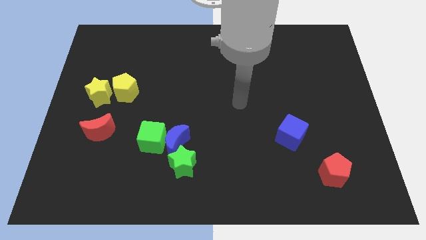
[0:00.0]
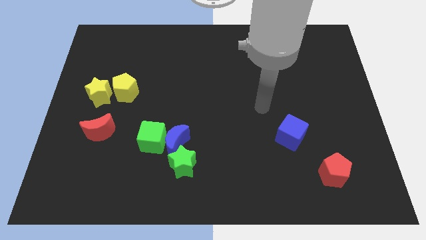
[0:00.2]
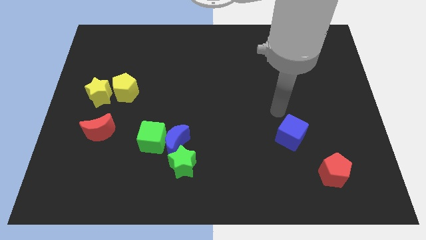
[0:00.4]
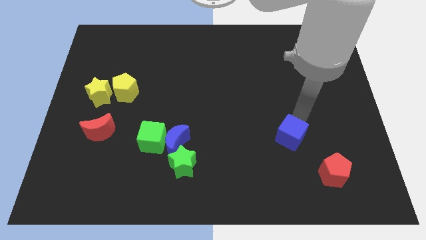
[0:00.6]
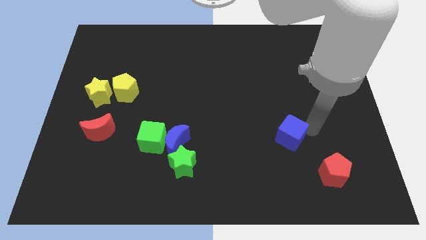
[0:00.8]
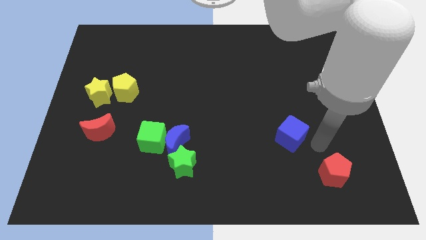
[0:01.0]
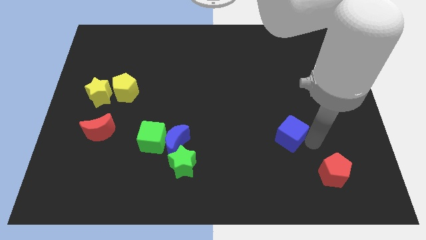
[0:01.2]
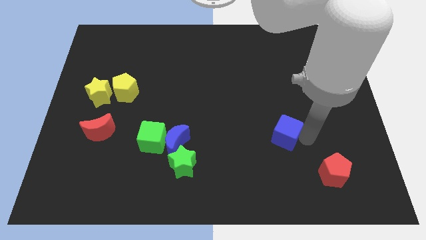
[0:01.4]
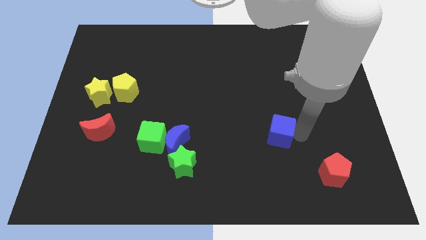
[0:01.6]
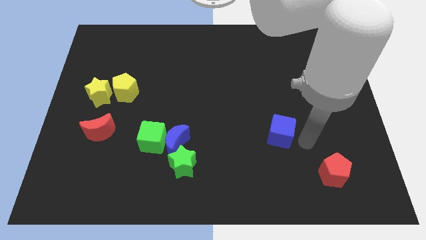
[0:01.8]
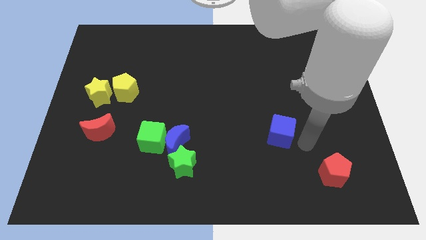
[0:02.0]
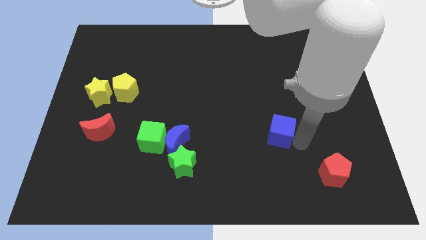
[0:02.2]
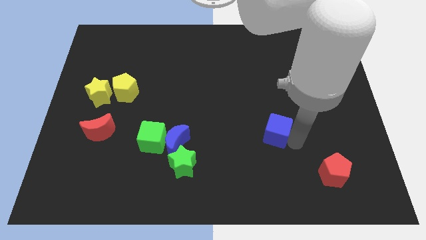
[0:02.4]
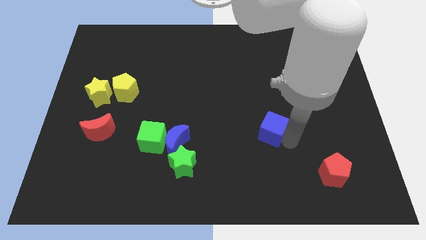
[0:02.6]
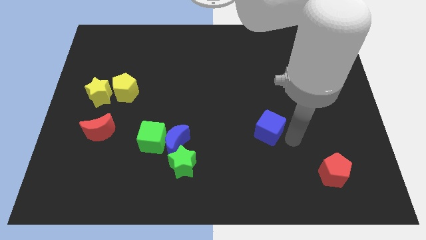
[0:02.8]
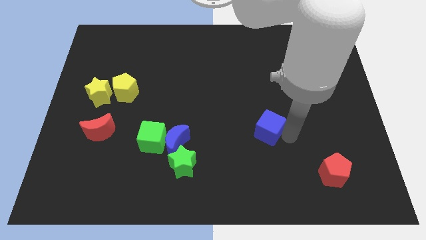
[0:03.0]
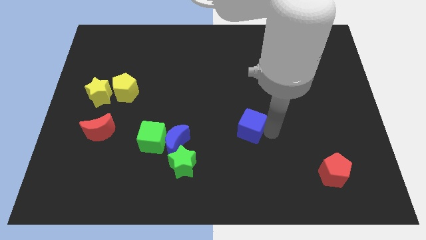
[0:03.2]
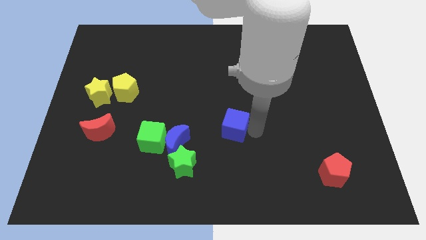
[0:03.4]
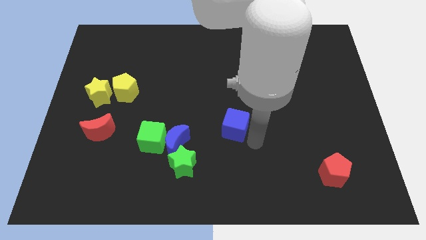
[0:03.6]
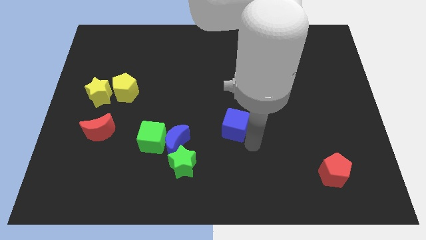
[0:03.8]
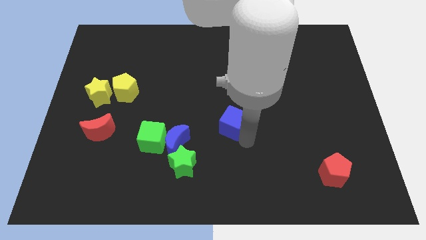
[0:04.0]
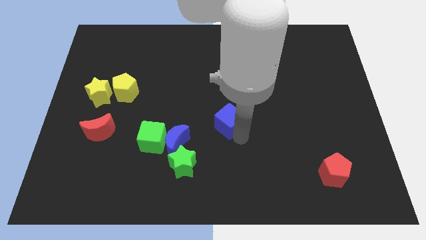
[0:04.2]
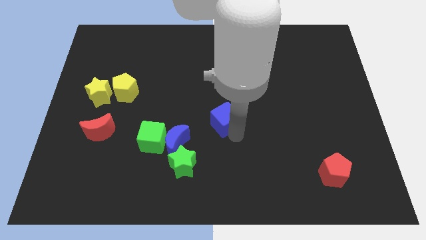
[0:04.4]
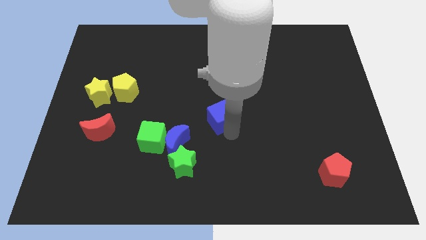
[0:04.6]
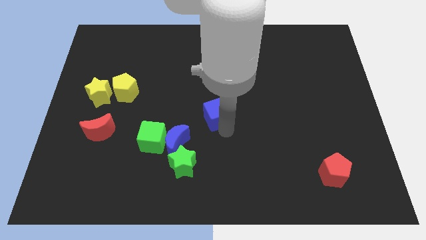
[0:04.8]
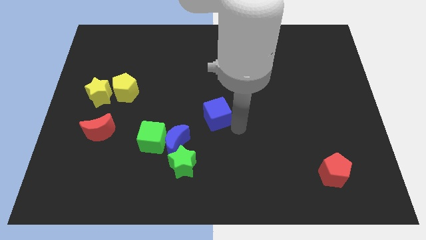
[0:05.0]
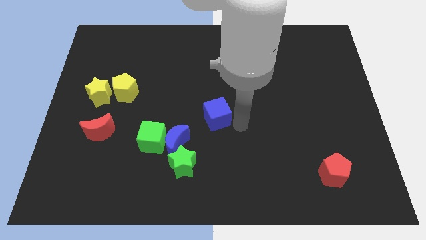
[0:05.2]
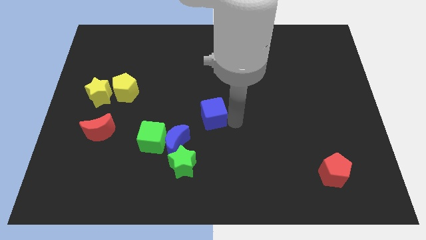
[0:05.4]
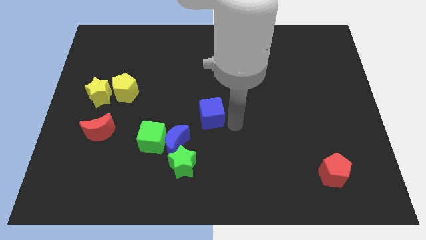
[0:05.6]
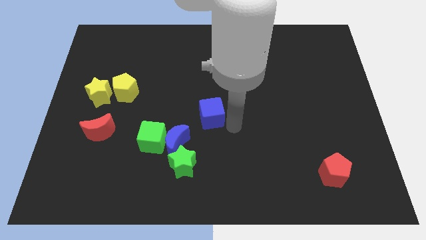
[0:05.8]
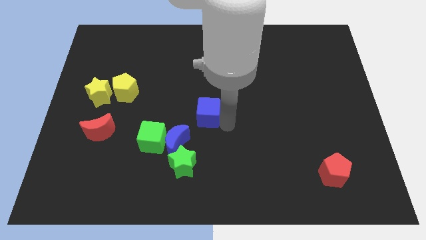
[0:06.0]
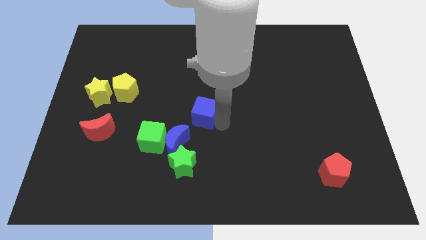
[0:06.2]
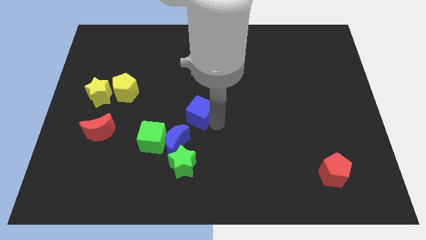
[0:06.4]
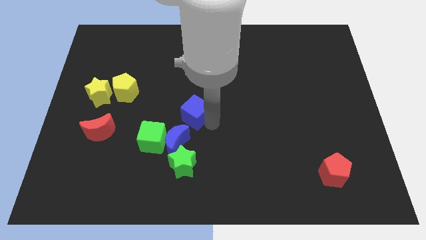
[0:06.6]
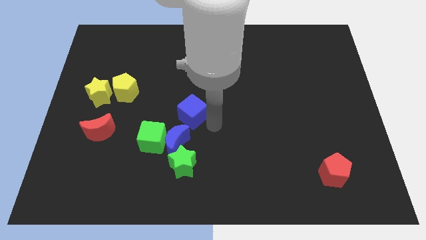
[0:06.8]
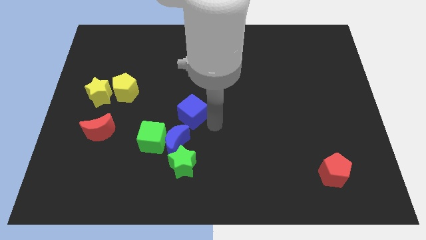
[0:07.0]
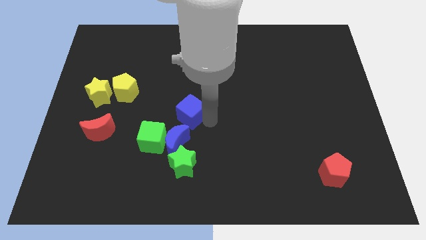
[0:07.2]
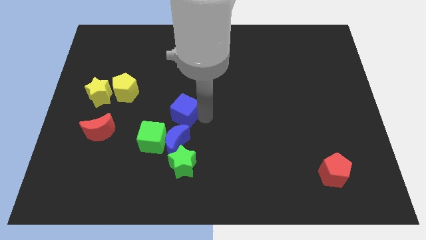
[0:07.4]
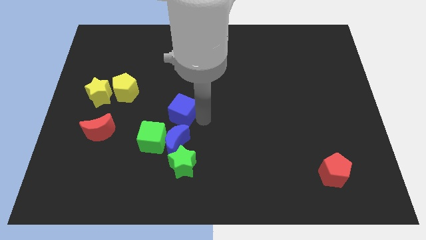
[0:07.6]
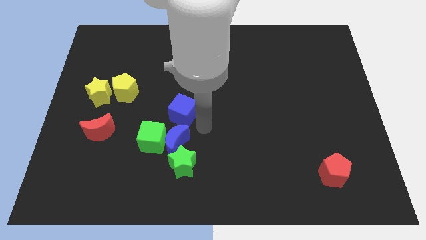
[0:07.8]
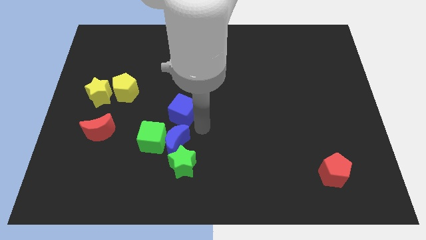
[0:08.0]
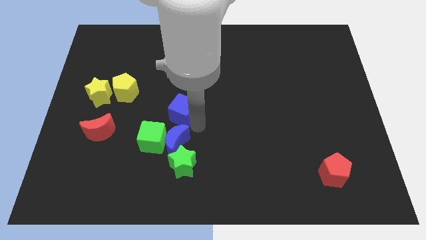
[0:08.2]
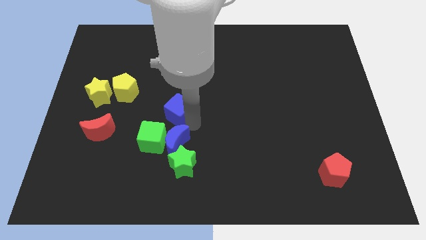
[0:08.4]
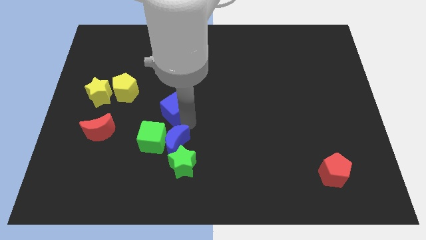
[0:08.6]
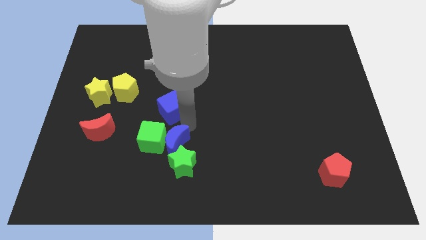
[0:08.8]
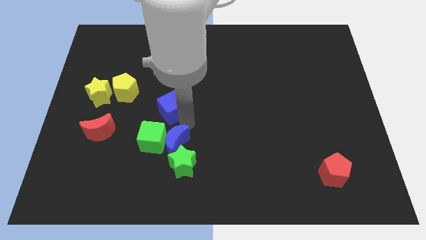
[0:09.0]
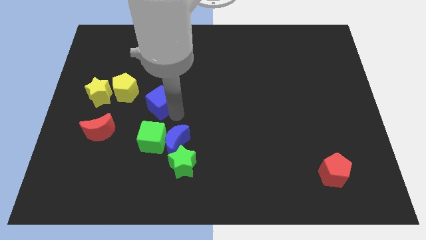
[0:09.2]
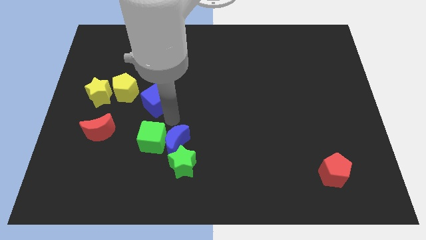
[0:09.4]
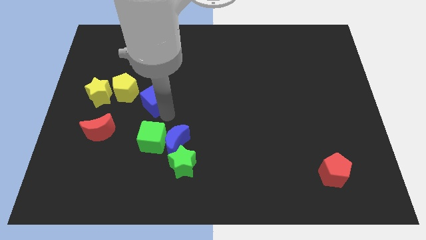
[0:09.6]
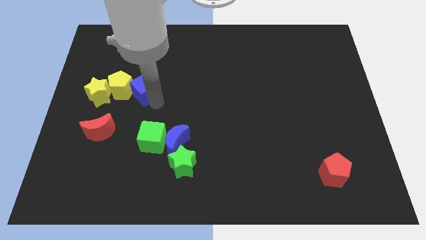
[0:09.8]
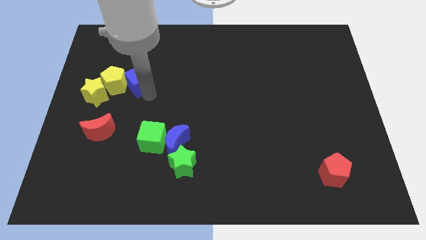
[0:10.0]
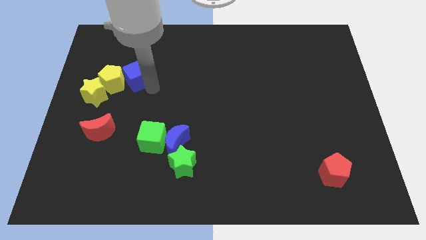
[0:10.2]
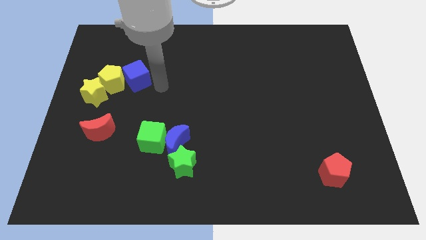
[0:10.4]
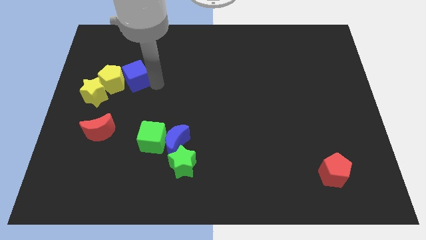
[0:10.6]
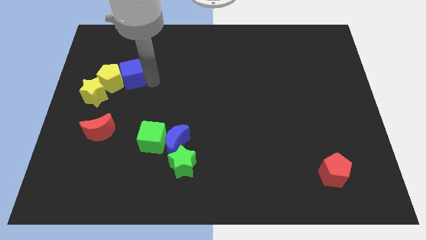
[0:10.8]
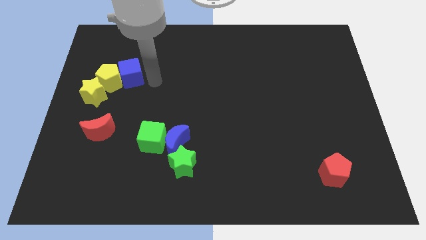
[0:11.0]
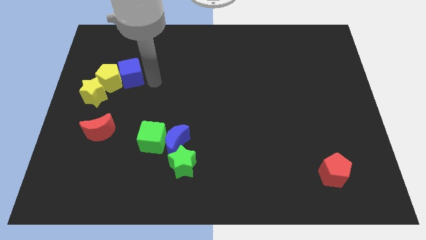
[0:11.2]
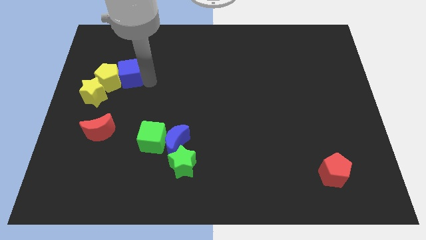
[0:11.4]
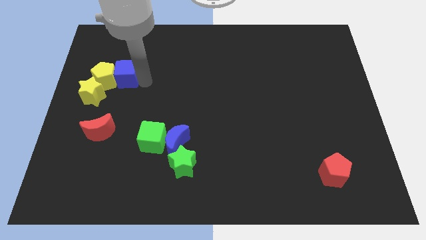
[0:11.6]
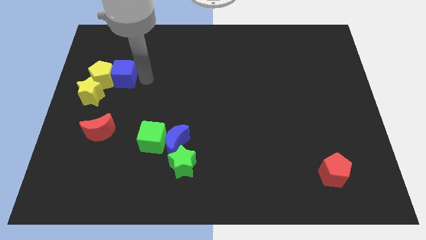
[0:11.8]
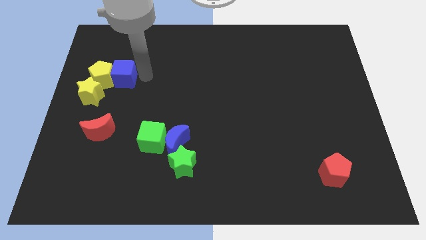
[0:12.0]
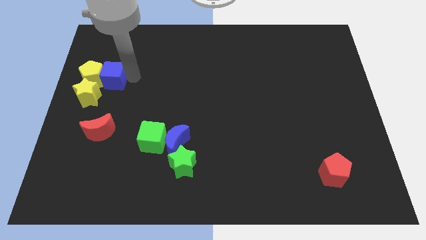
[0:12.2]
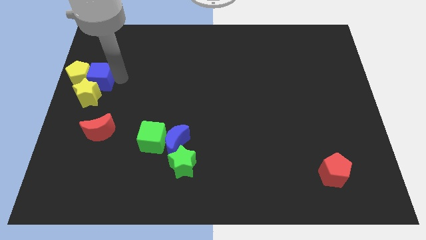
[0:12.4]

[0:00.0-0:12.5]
put the blue cube to the left side
